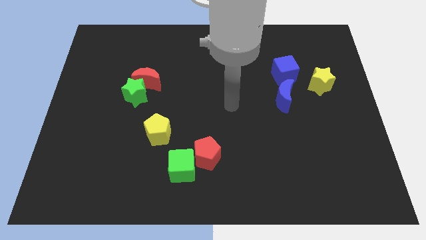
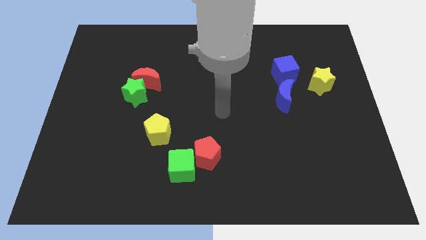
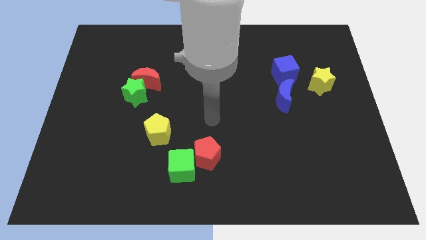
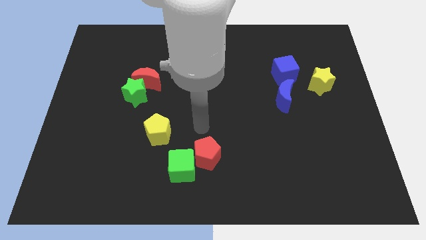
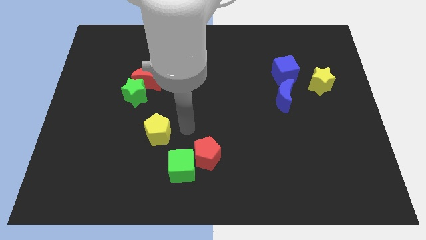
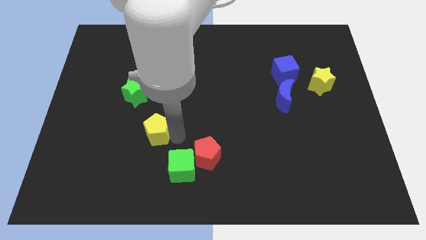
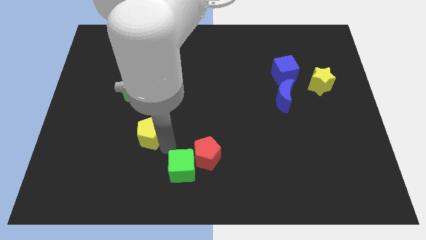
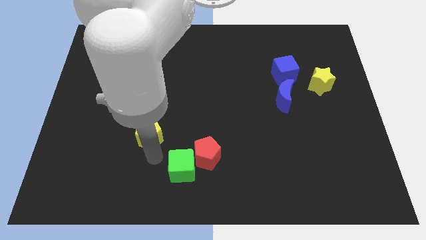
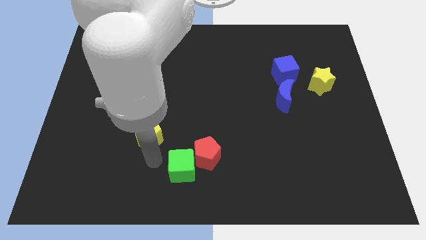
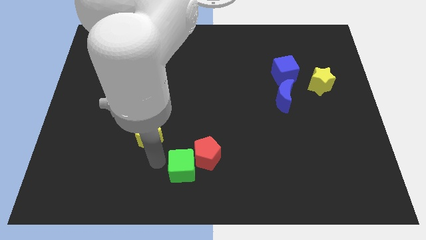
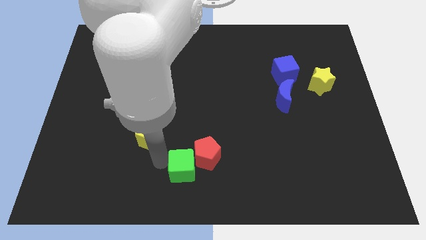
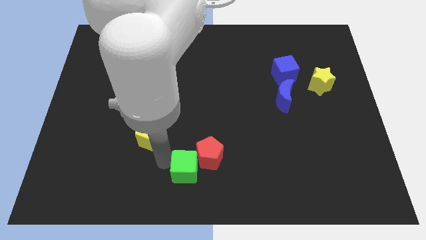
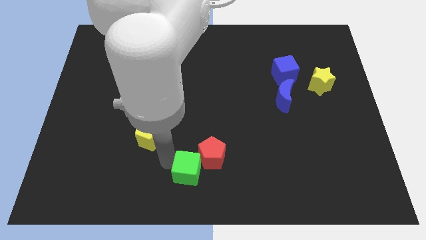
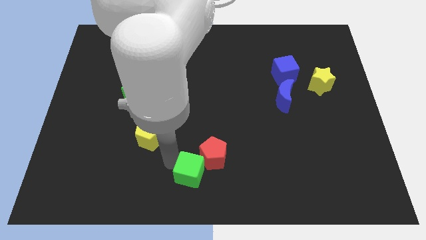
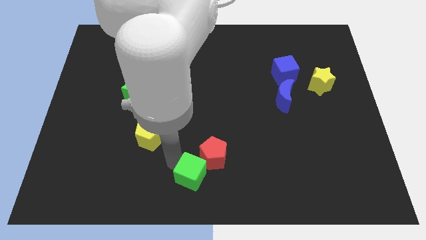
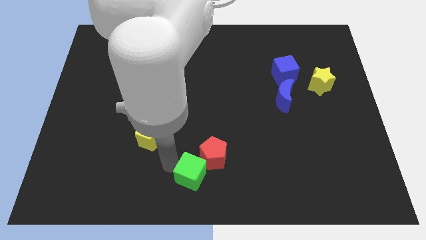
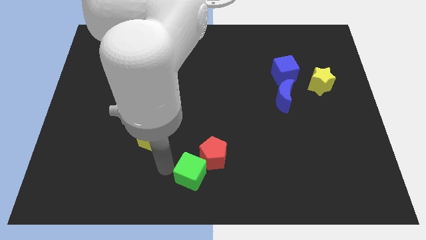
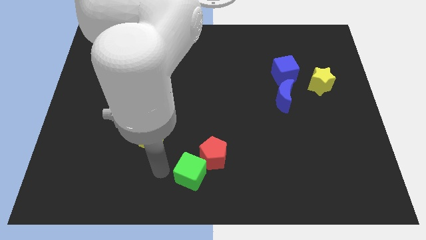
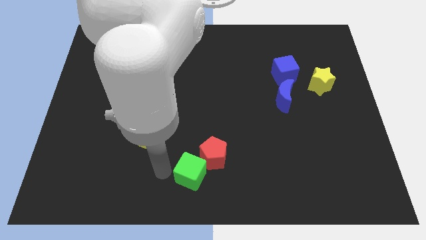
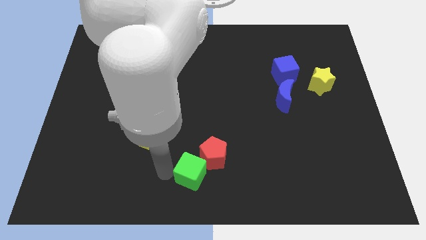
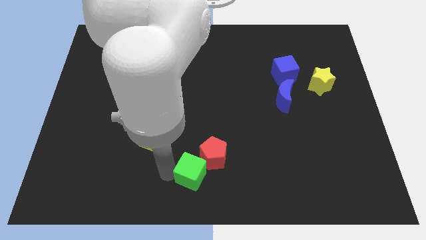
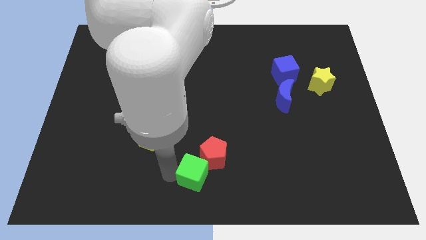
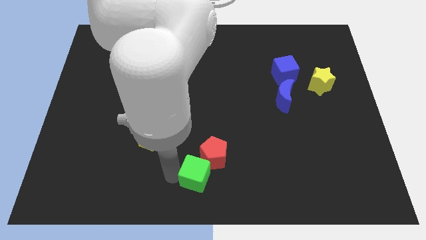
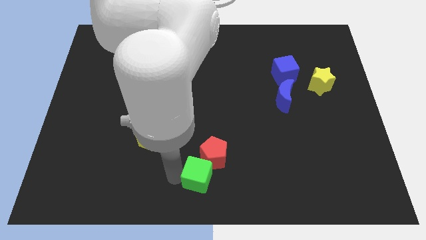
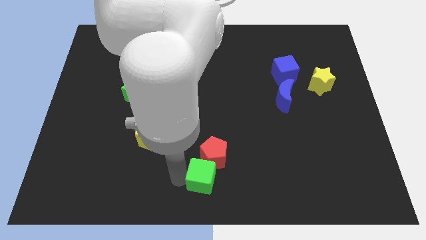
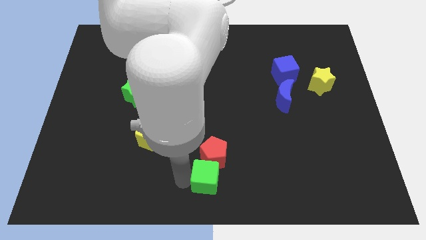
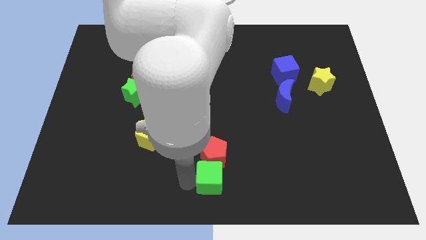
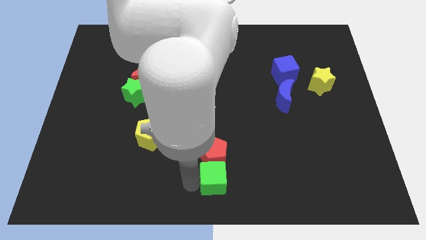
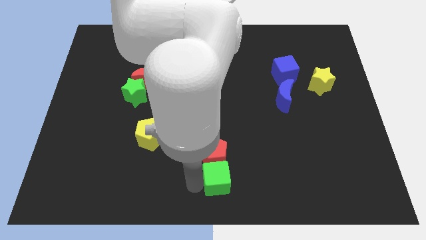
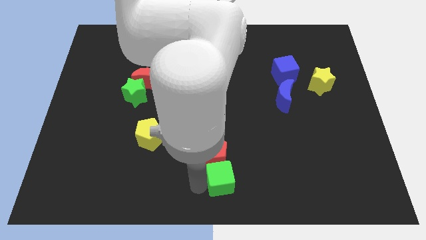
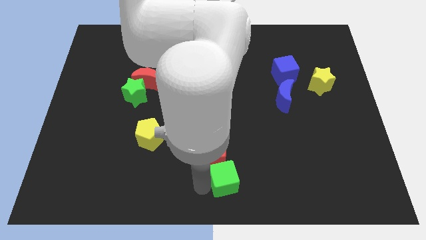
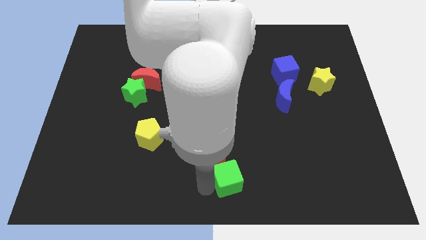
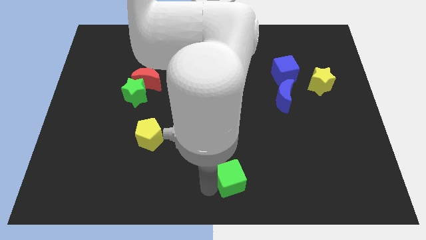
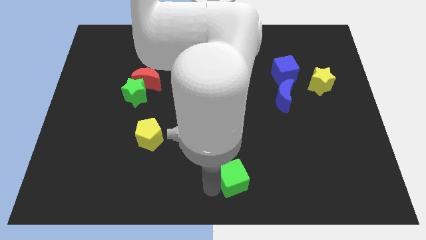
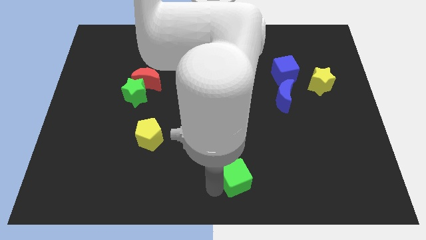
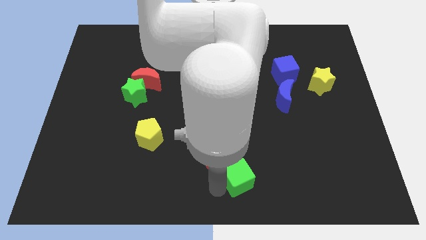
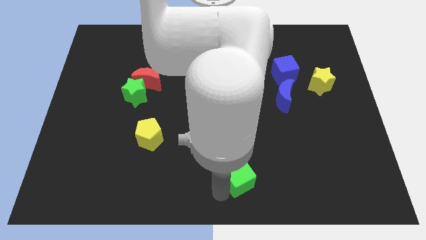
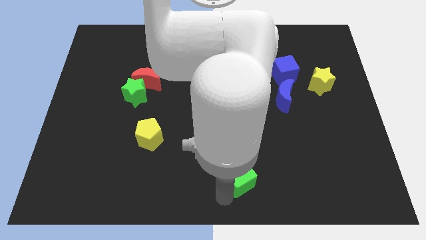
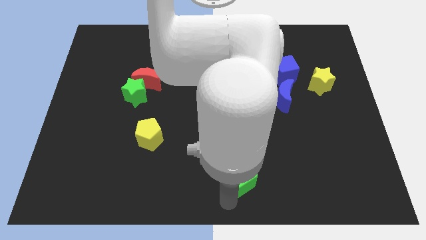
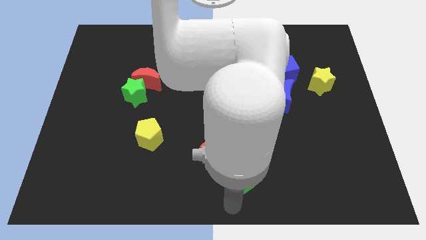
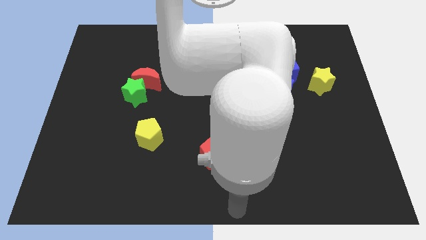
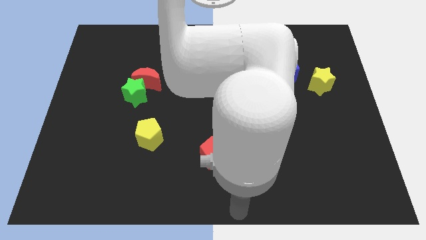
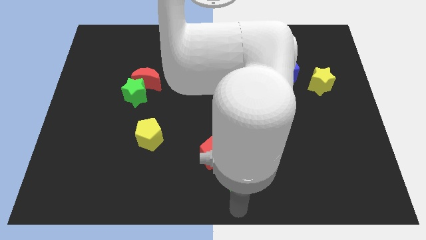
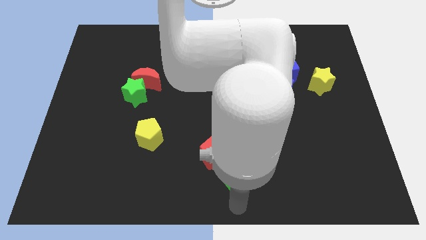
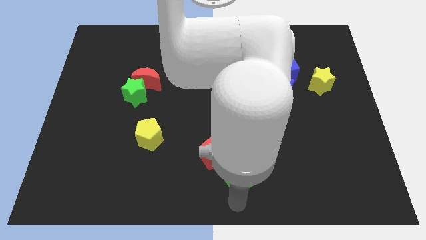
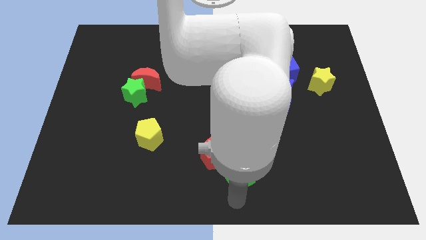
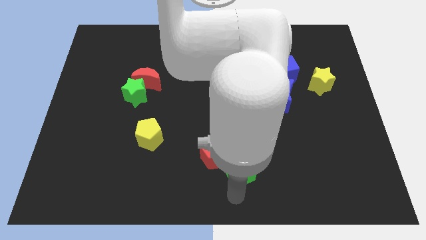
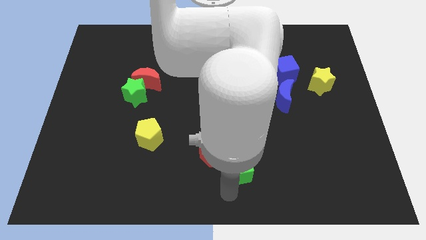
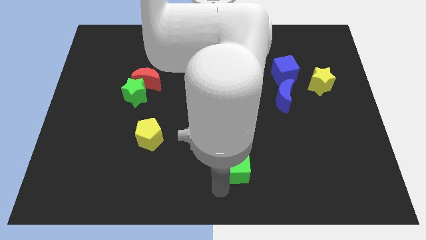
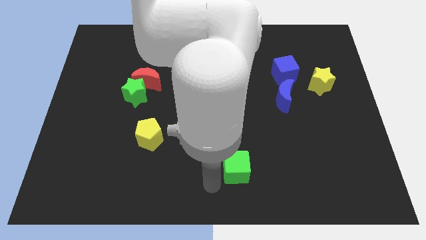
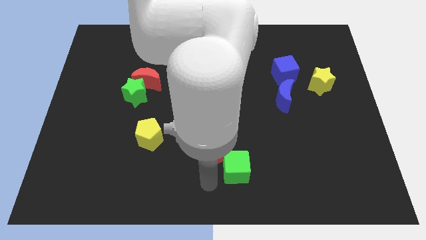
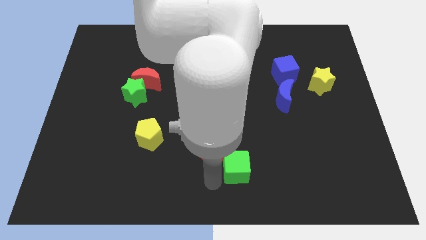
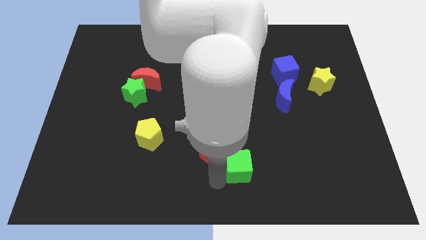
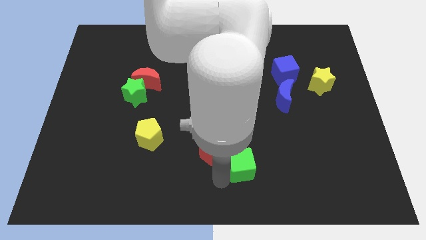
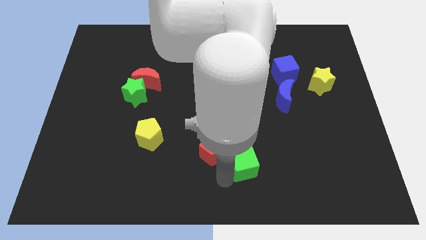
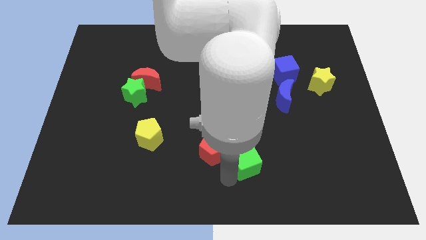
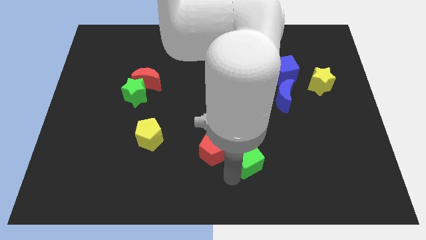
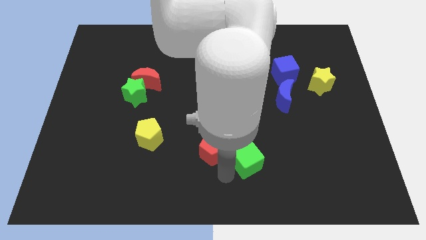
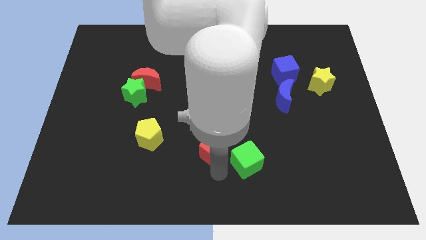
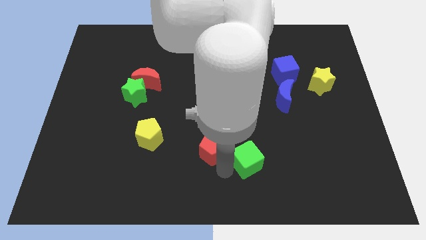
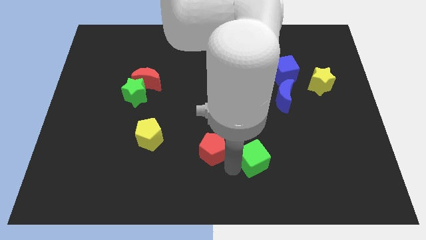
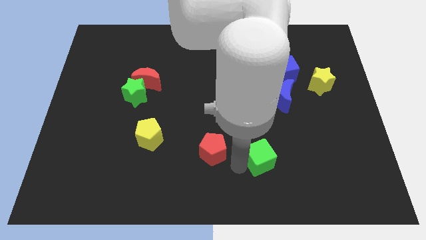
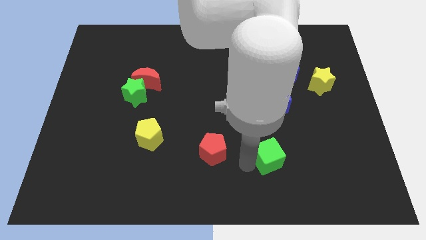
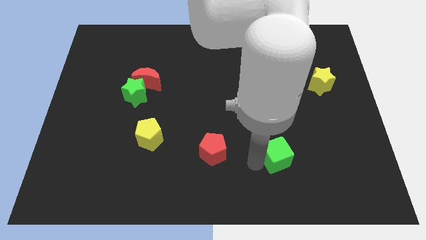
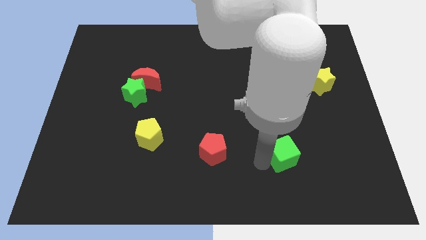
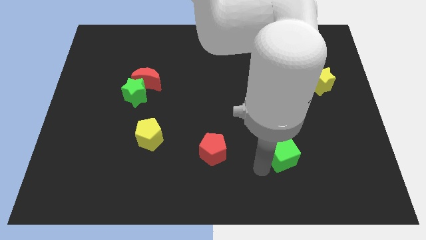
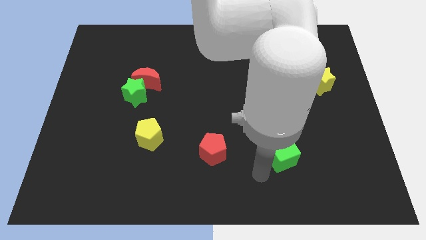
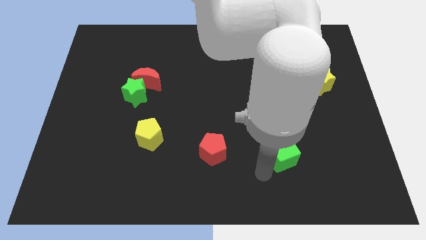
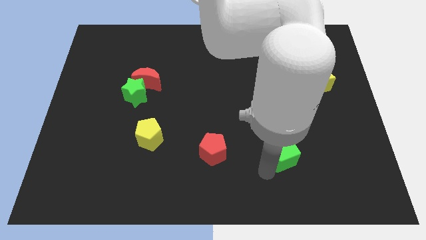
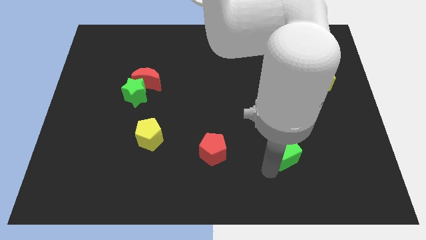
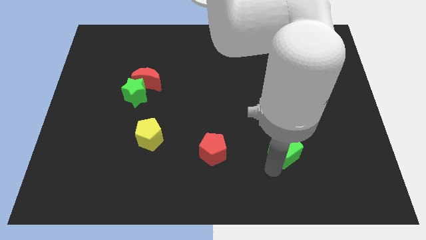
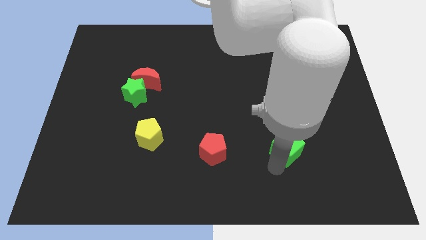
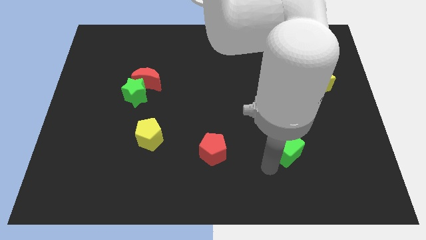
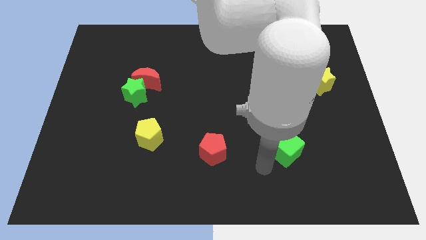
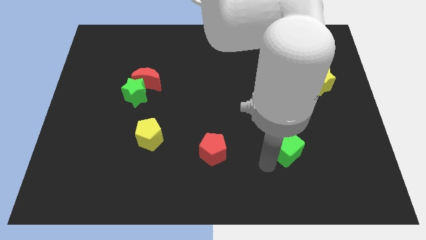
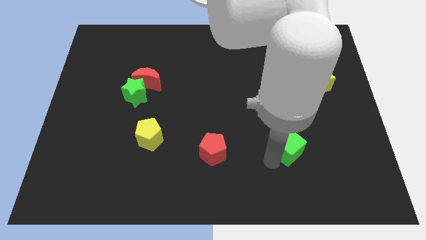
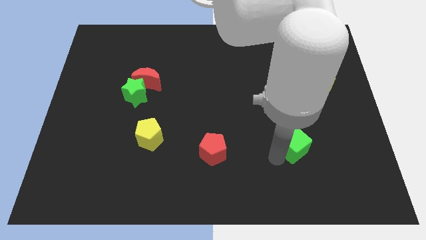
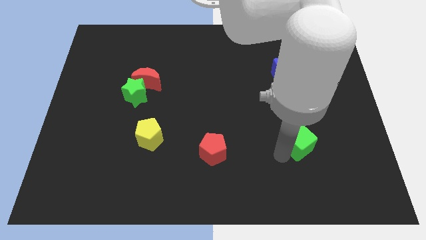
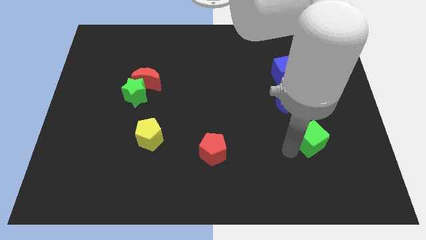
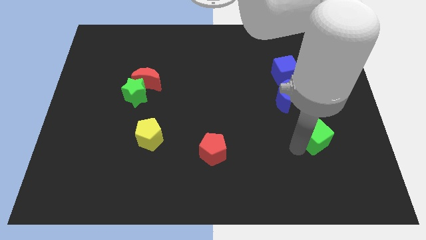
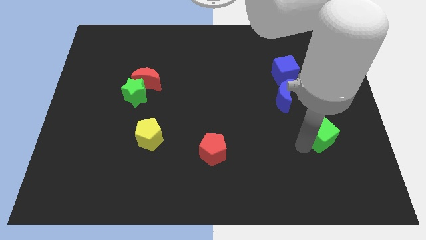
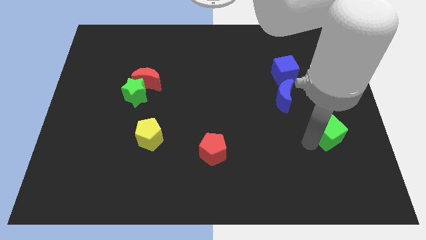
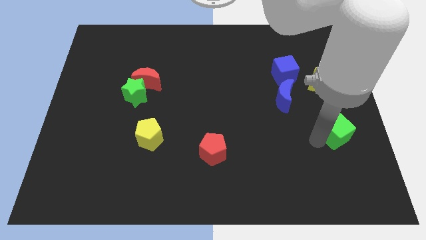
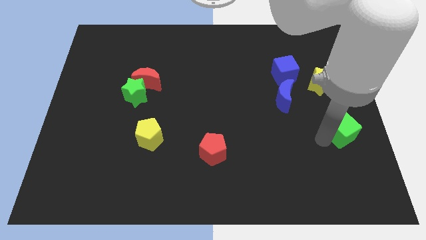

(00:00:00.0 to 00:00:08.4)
push the green cube to the right side
